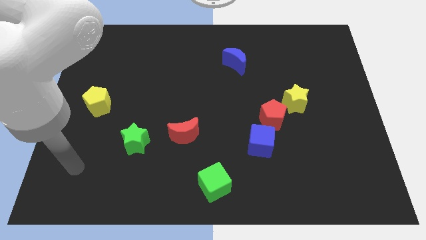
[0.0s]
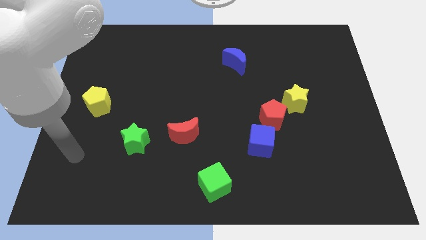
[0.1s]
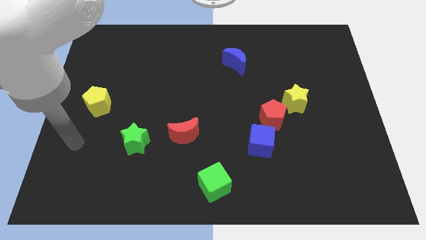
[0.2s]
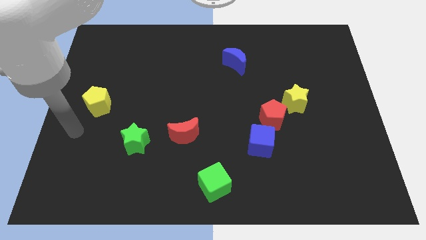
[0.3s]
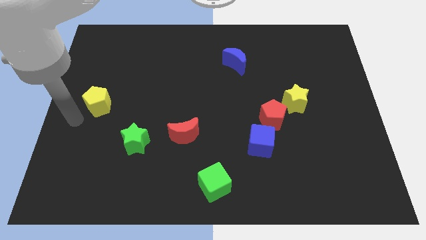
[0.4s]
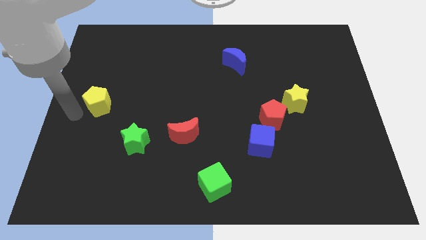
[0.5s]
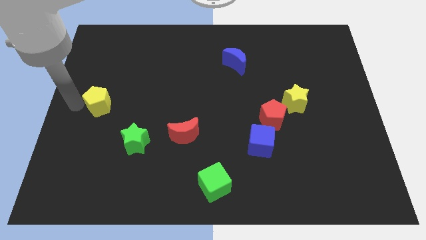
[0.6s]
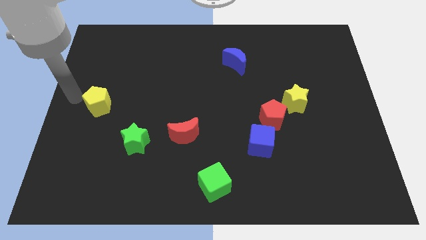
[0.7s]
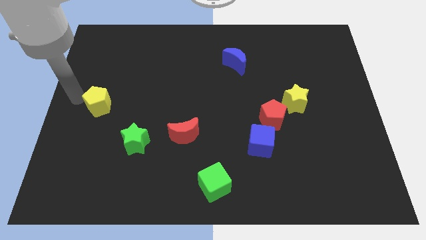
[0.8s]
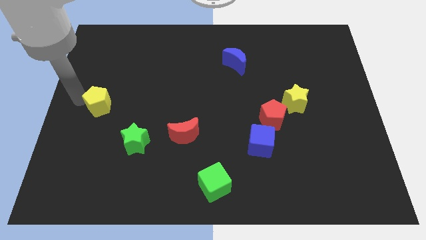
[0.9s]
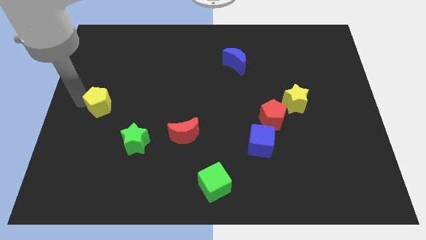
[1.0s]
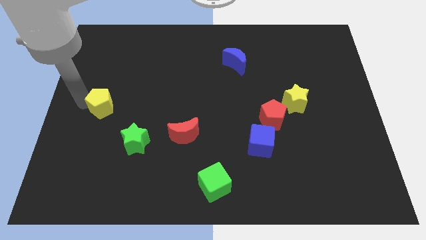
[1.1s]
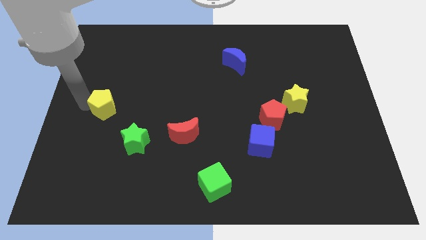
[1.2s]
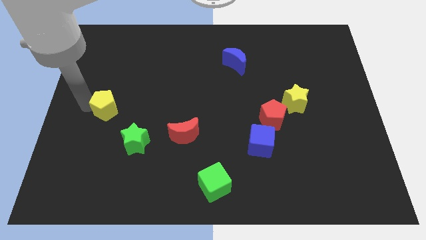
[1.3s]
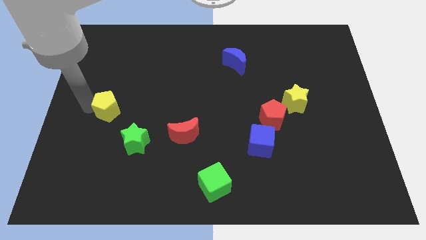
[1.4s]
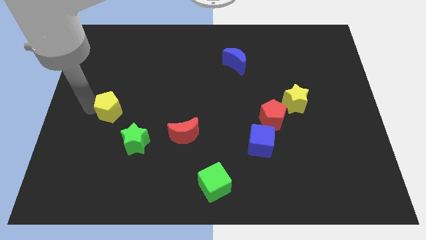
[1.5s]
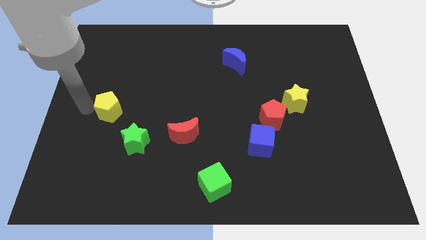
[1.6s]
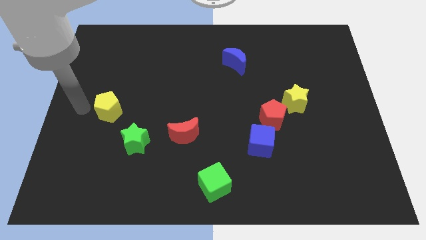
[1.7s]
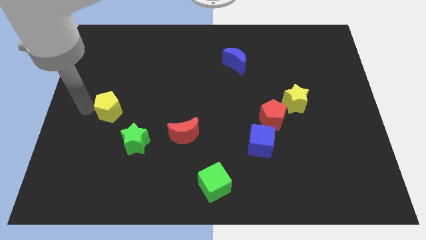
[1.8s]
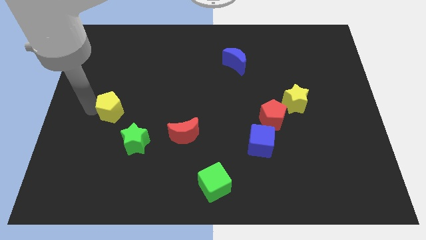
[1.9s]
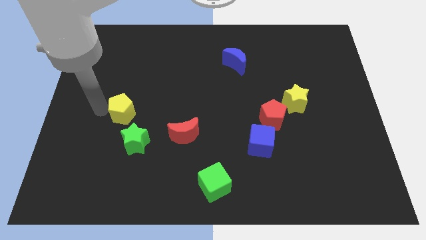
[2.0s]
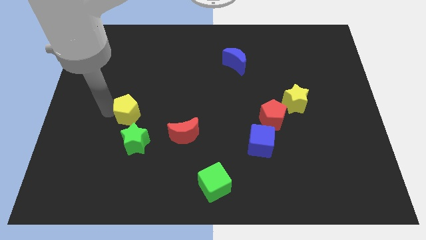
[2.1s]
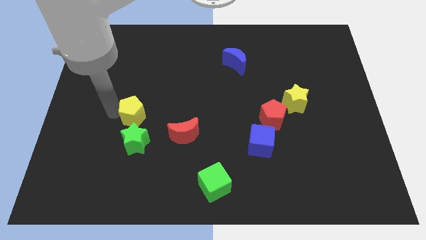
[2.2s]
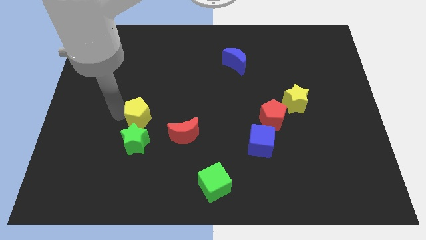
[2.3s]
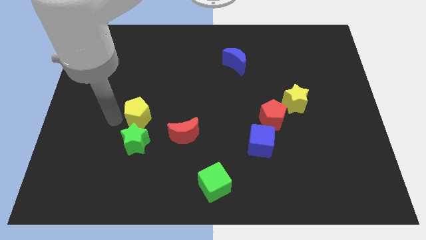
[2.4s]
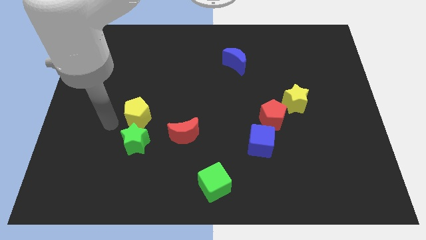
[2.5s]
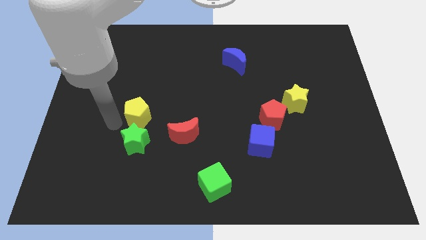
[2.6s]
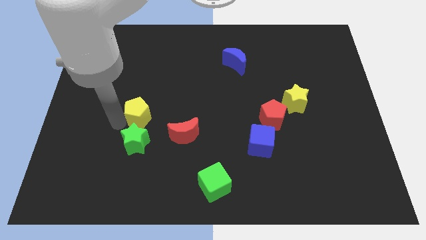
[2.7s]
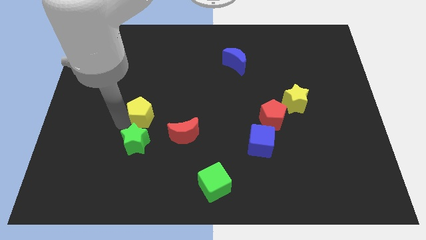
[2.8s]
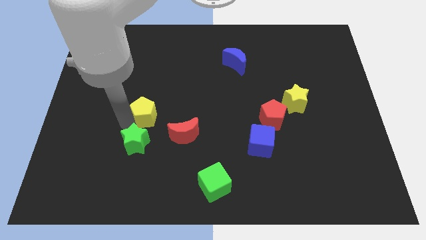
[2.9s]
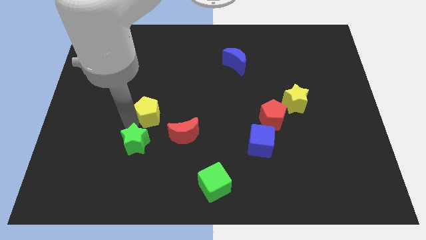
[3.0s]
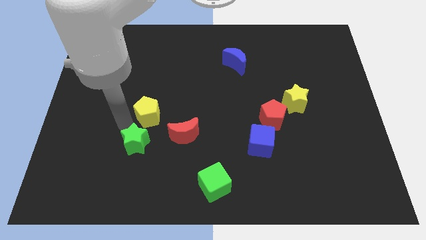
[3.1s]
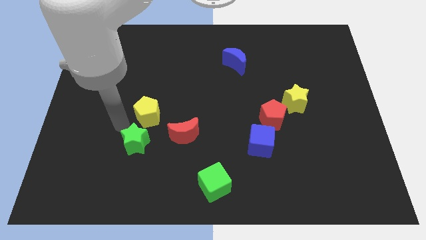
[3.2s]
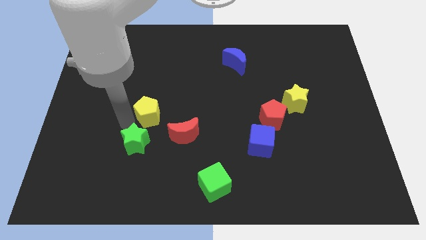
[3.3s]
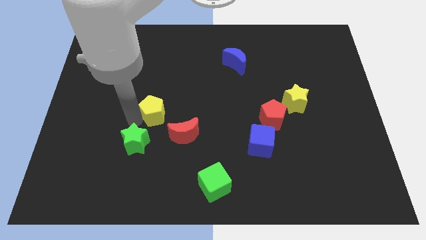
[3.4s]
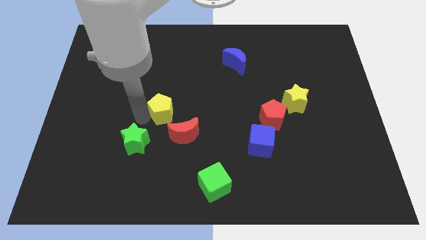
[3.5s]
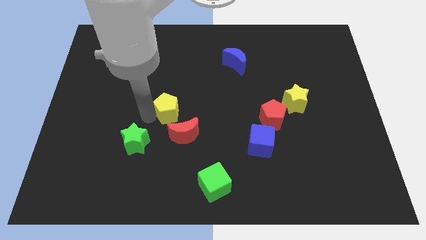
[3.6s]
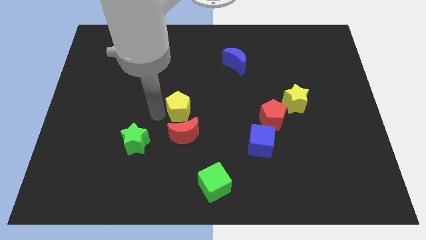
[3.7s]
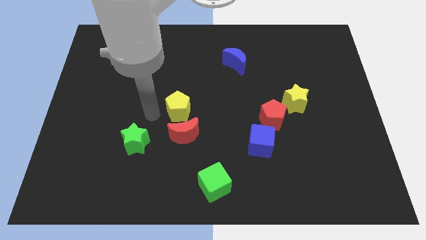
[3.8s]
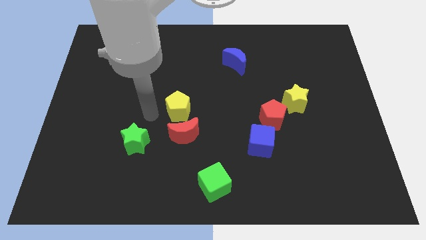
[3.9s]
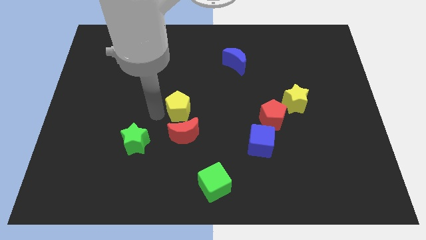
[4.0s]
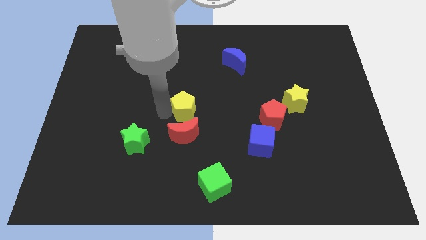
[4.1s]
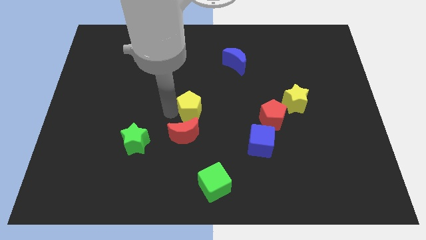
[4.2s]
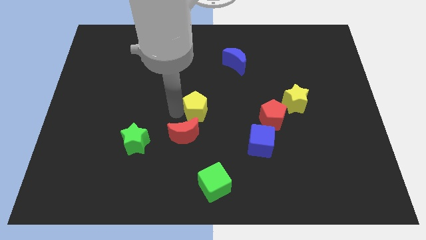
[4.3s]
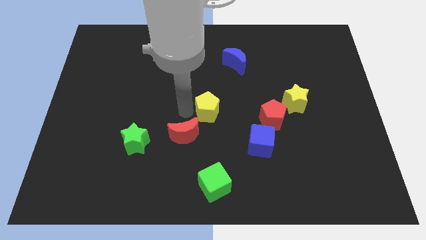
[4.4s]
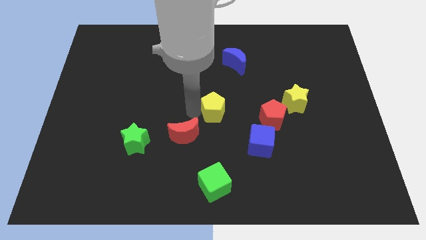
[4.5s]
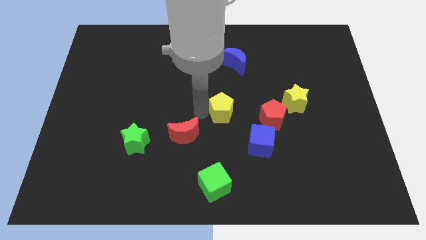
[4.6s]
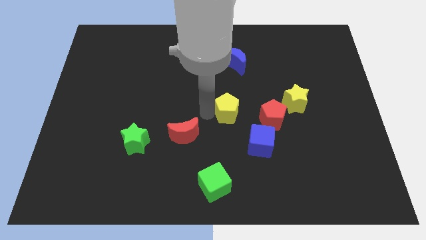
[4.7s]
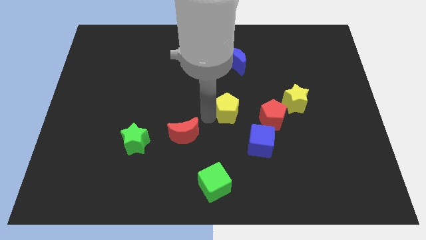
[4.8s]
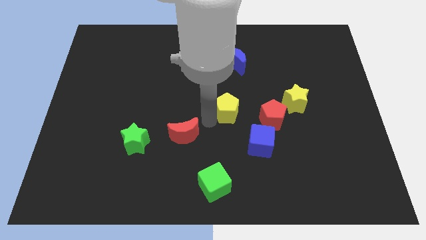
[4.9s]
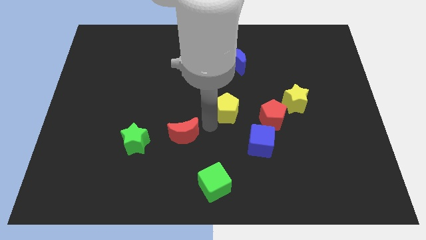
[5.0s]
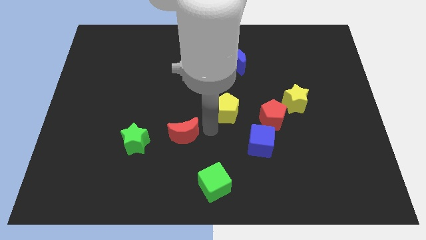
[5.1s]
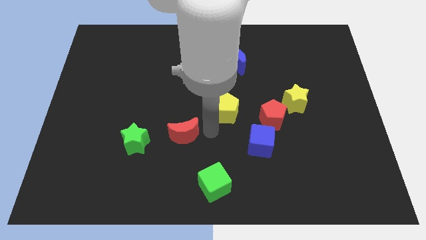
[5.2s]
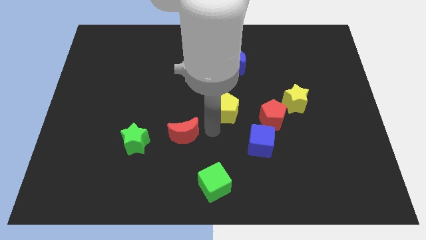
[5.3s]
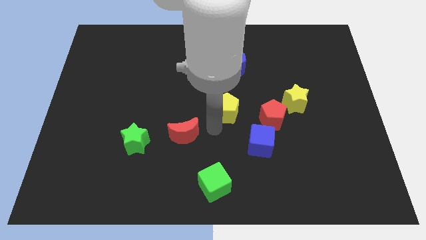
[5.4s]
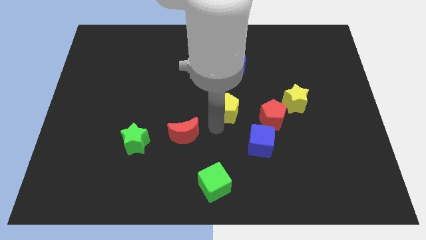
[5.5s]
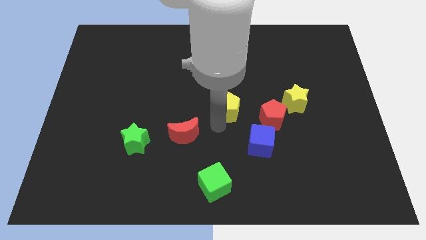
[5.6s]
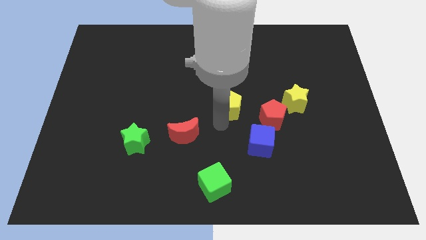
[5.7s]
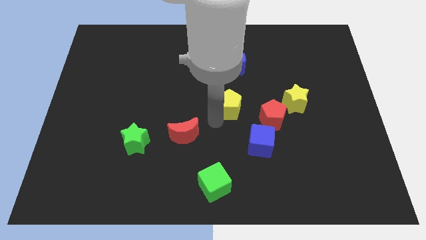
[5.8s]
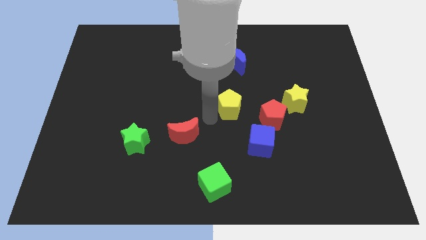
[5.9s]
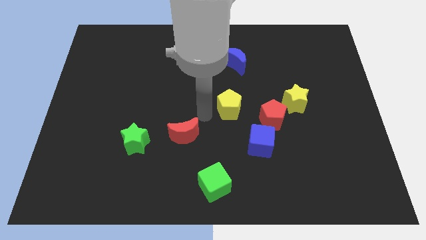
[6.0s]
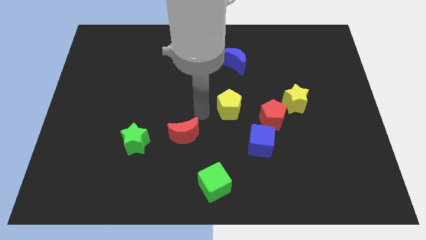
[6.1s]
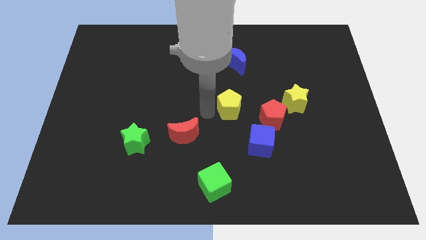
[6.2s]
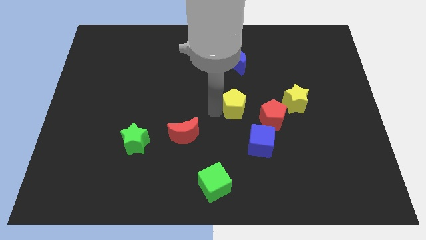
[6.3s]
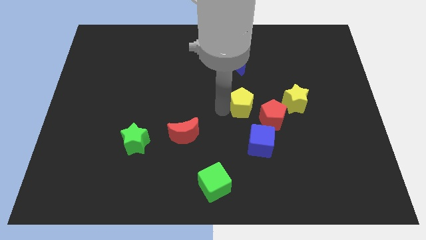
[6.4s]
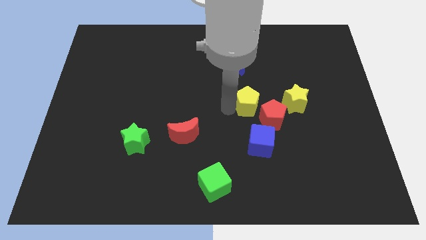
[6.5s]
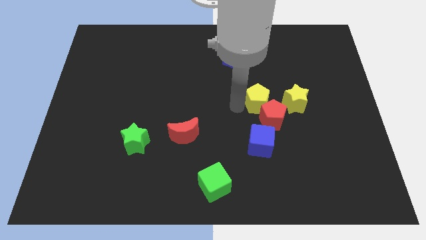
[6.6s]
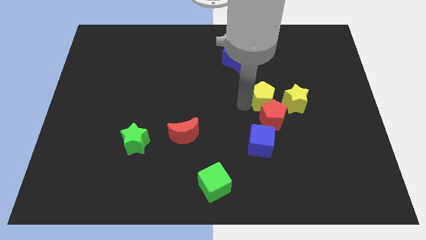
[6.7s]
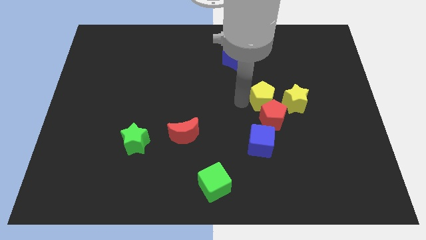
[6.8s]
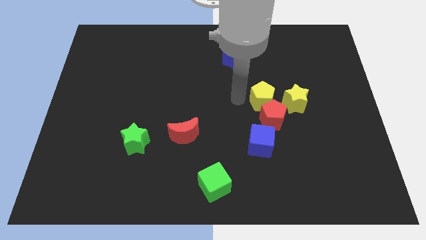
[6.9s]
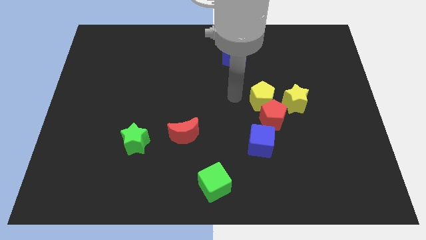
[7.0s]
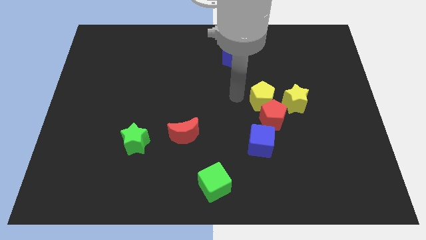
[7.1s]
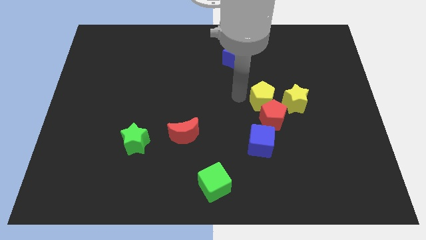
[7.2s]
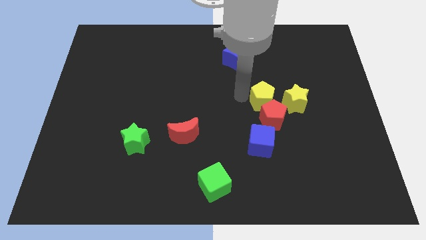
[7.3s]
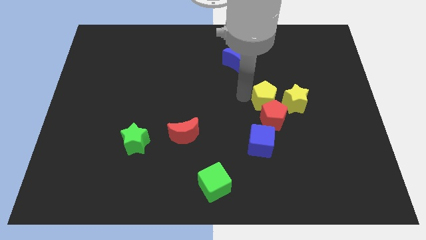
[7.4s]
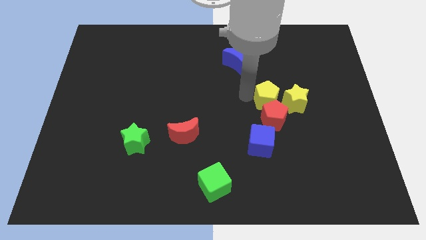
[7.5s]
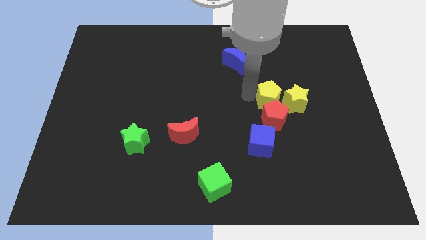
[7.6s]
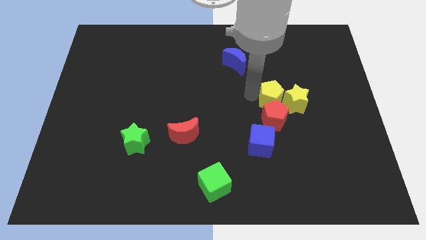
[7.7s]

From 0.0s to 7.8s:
put the yellow pentagon close to the yellow star
